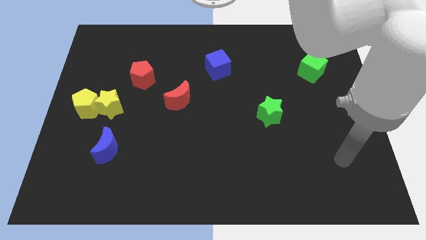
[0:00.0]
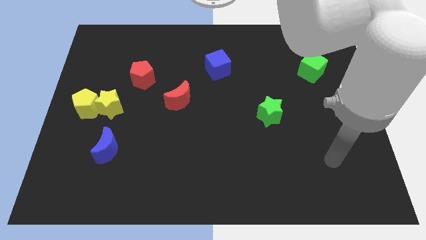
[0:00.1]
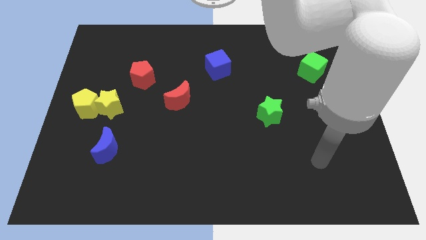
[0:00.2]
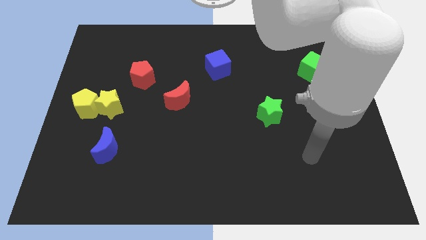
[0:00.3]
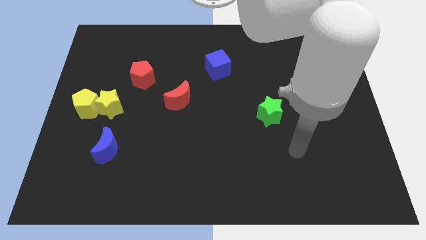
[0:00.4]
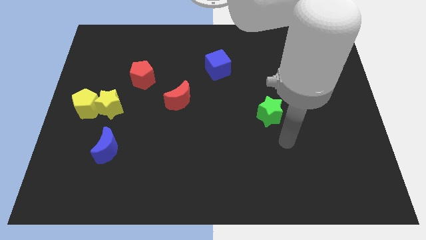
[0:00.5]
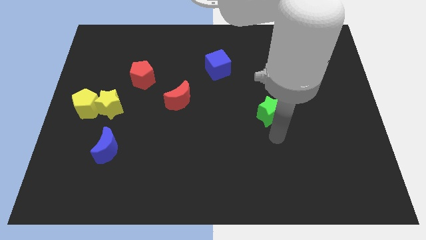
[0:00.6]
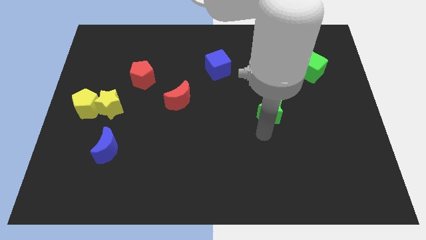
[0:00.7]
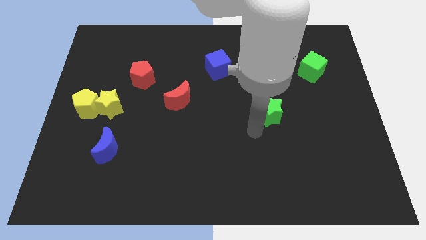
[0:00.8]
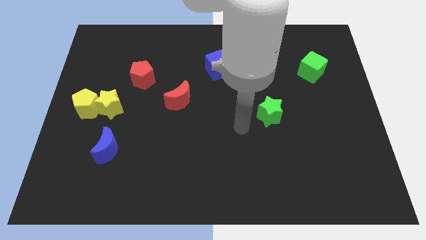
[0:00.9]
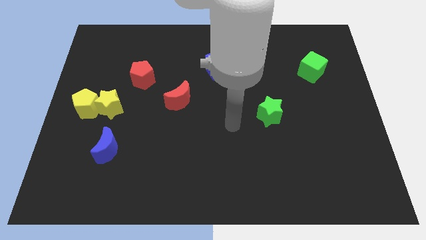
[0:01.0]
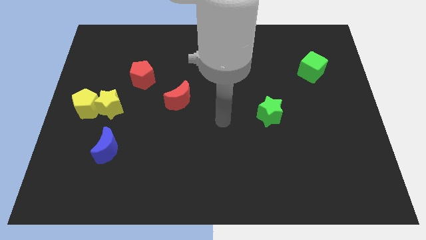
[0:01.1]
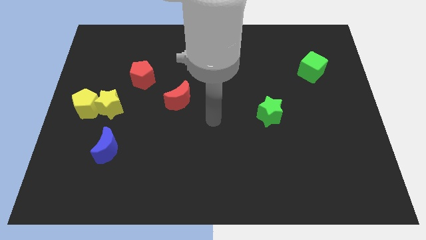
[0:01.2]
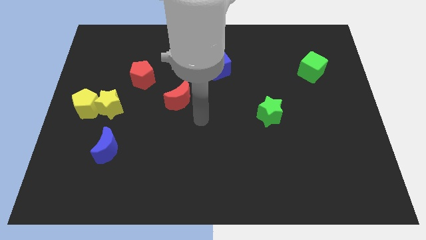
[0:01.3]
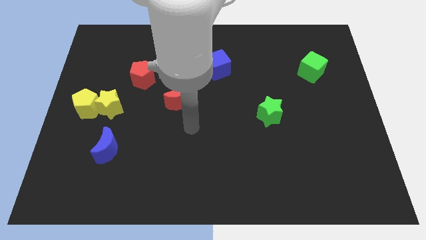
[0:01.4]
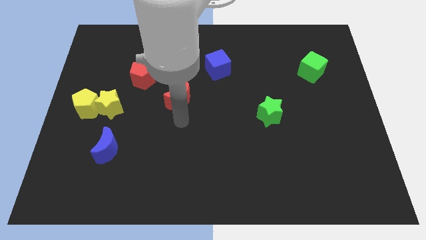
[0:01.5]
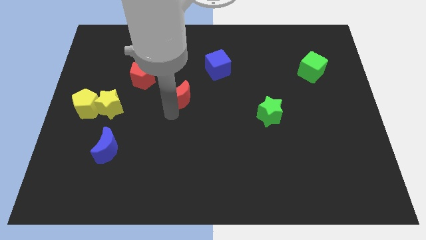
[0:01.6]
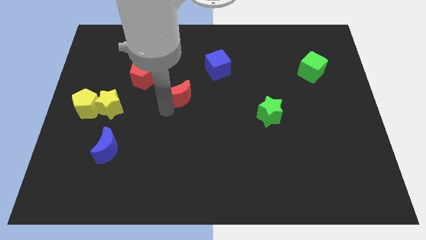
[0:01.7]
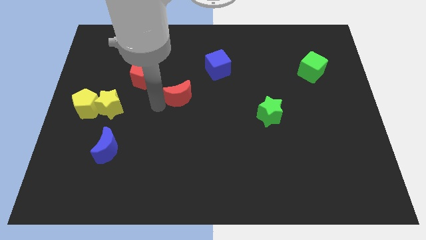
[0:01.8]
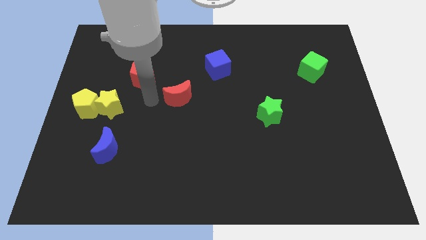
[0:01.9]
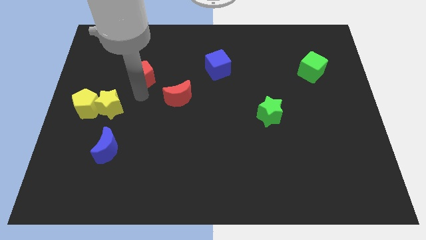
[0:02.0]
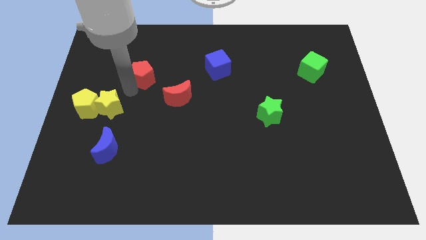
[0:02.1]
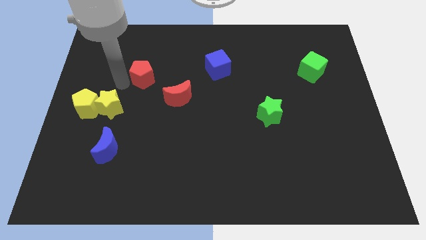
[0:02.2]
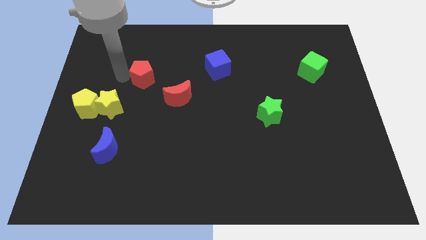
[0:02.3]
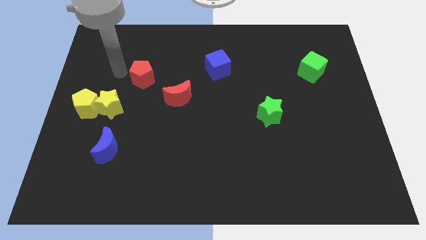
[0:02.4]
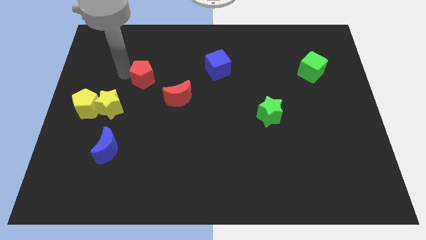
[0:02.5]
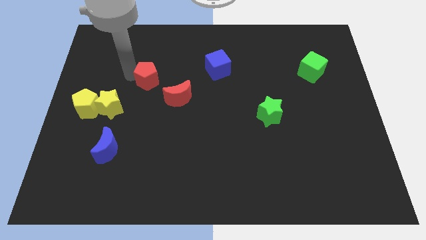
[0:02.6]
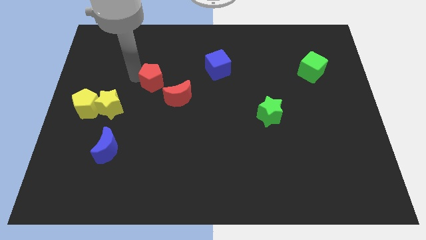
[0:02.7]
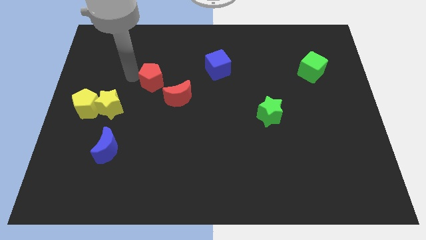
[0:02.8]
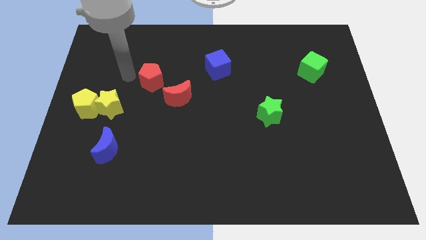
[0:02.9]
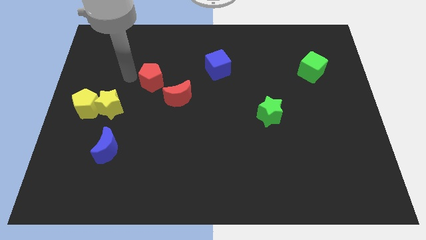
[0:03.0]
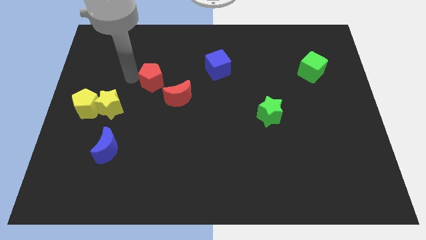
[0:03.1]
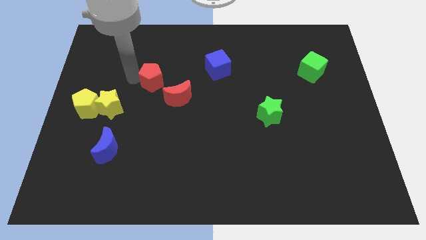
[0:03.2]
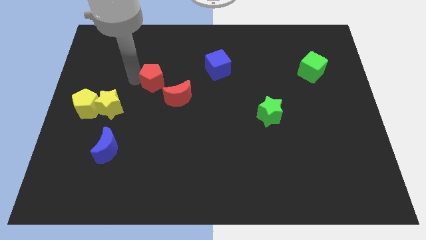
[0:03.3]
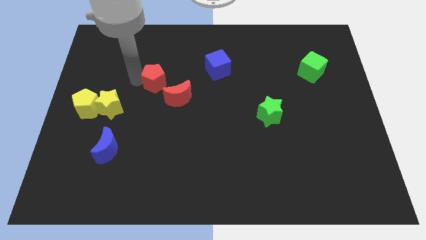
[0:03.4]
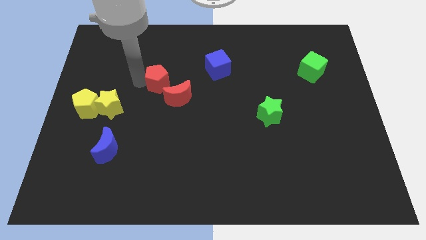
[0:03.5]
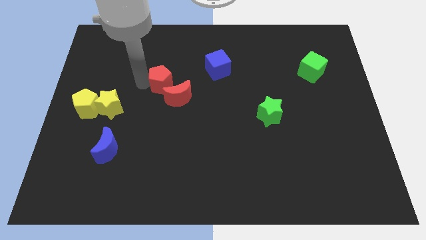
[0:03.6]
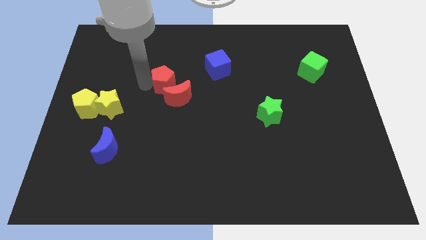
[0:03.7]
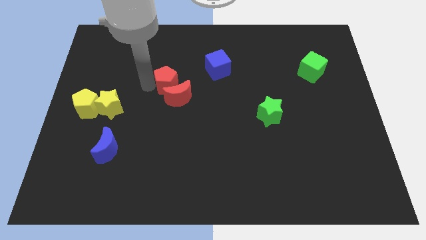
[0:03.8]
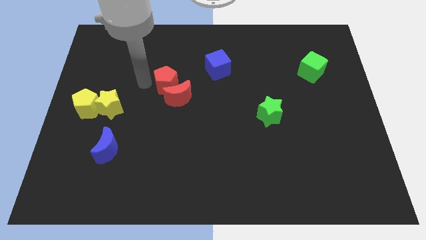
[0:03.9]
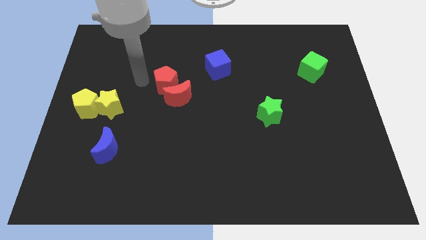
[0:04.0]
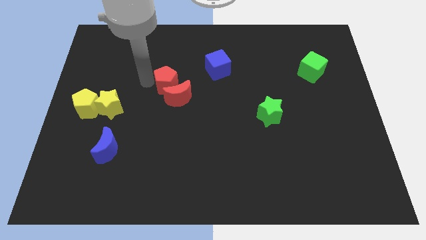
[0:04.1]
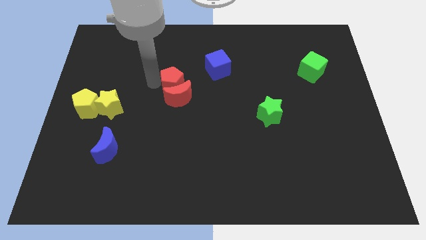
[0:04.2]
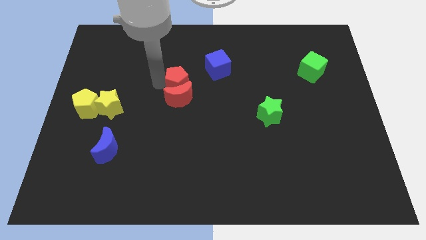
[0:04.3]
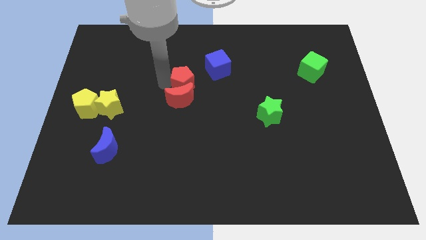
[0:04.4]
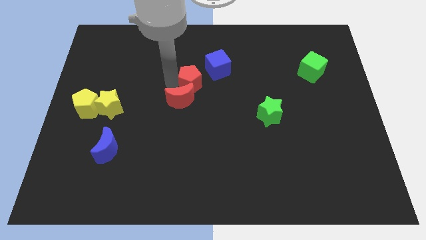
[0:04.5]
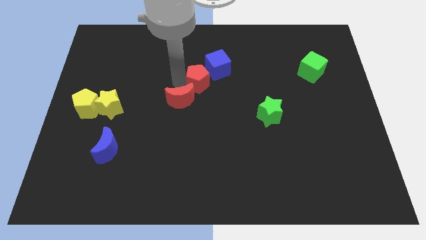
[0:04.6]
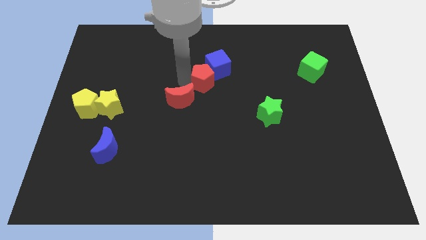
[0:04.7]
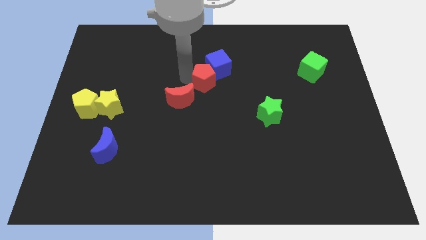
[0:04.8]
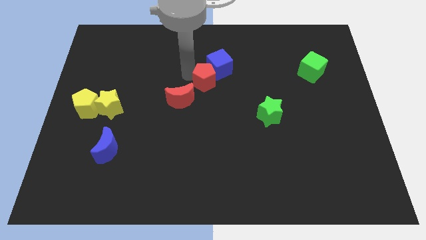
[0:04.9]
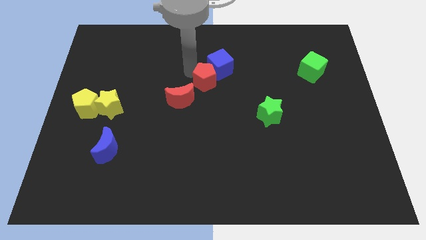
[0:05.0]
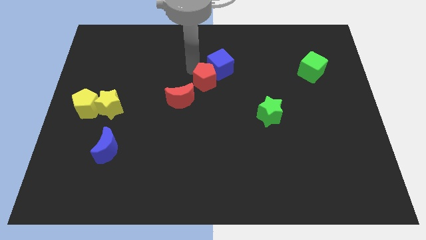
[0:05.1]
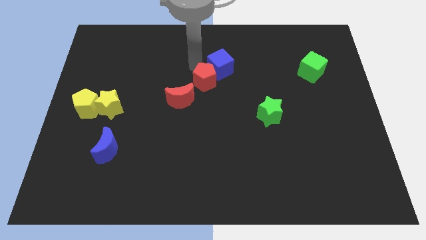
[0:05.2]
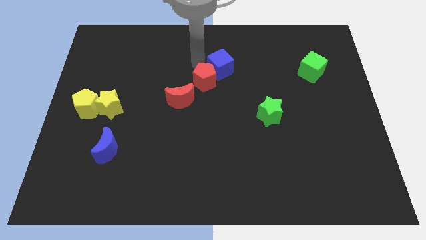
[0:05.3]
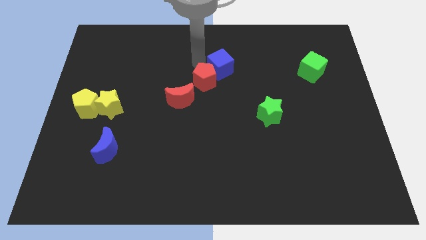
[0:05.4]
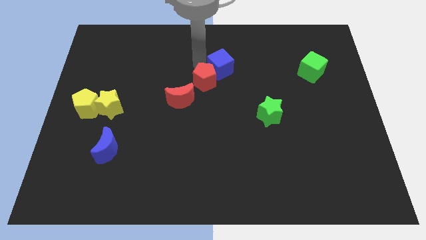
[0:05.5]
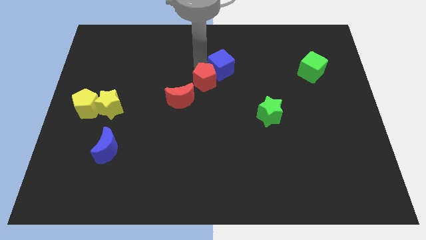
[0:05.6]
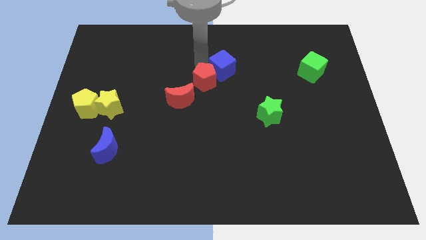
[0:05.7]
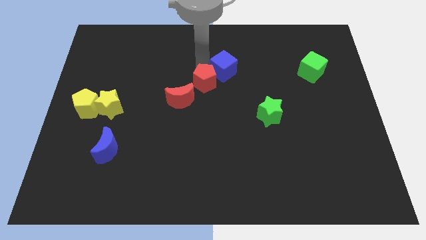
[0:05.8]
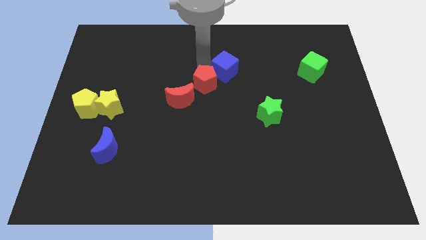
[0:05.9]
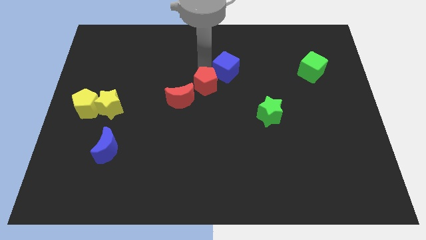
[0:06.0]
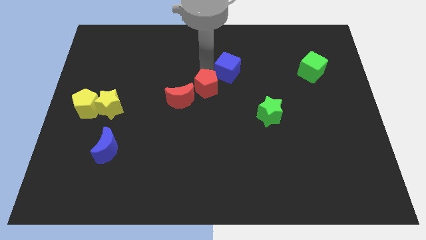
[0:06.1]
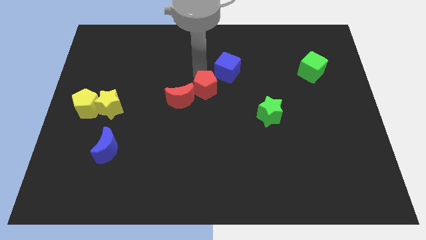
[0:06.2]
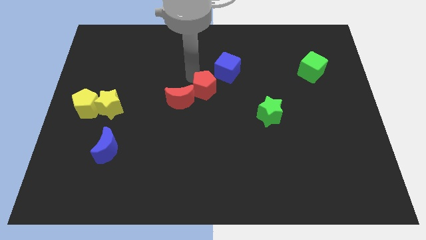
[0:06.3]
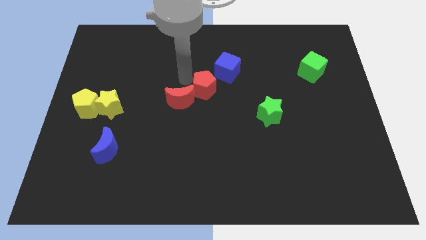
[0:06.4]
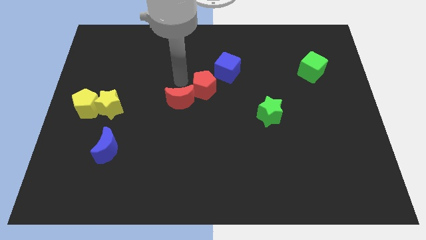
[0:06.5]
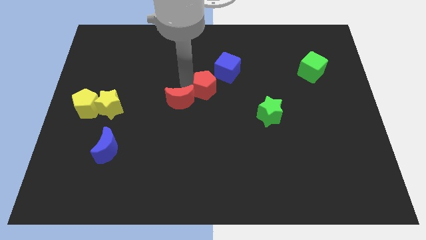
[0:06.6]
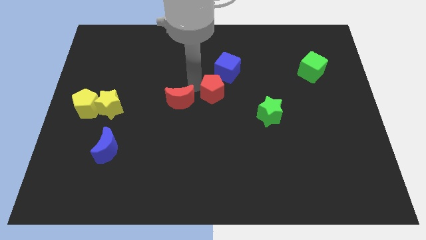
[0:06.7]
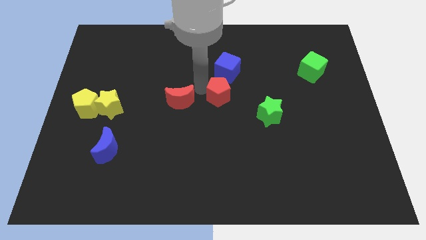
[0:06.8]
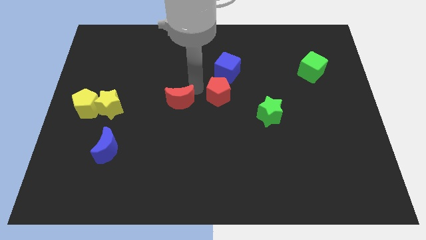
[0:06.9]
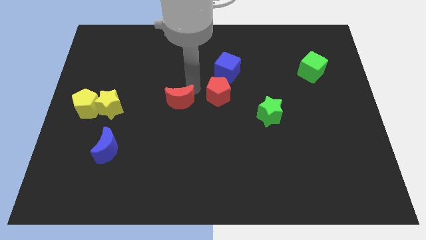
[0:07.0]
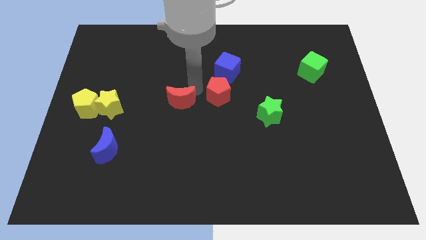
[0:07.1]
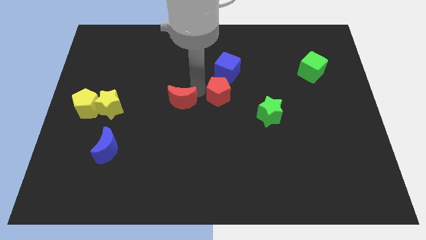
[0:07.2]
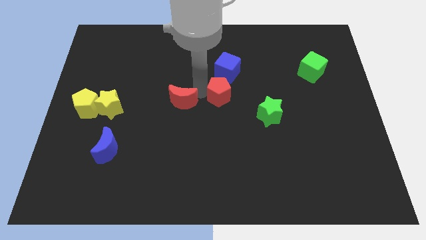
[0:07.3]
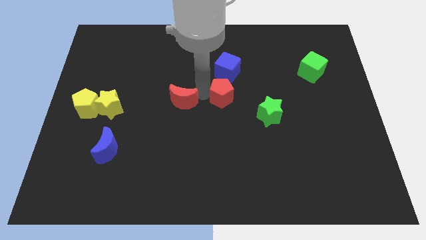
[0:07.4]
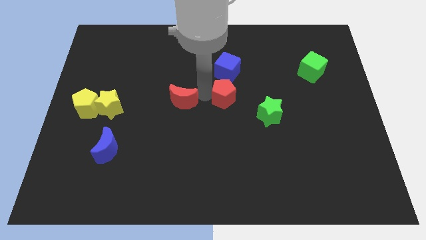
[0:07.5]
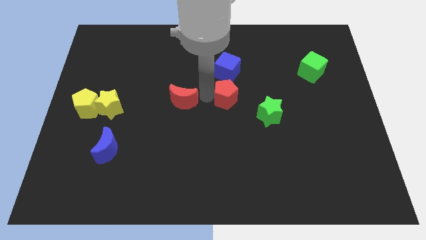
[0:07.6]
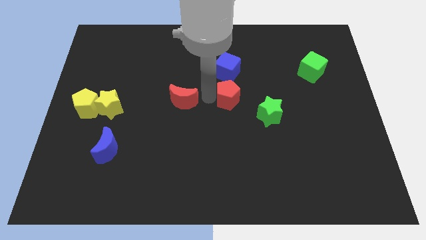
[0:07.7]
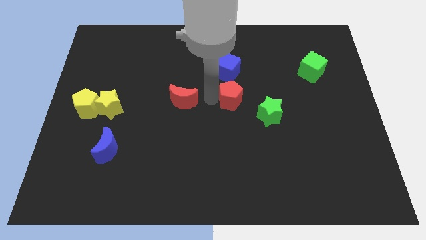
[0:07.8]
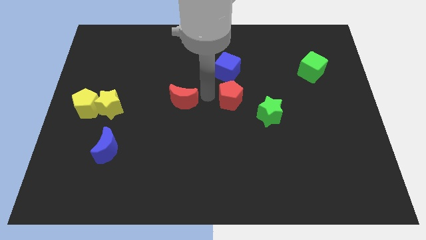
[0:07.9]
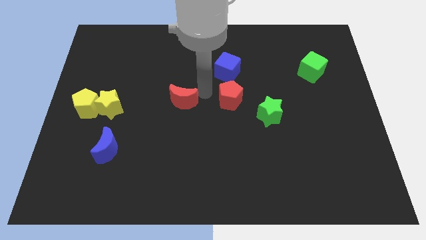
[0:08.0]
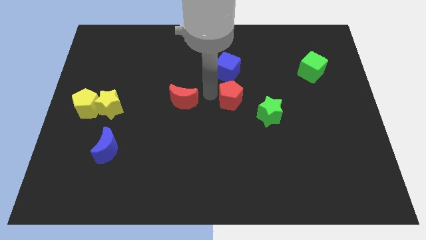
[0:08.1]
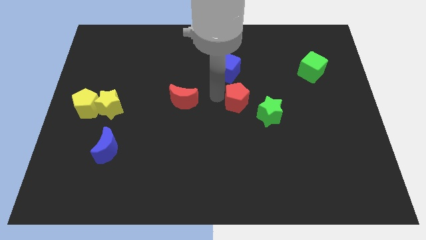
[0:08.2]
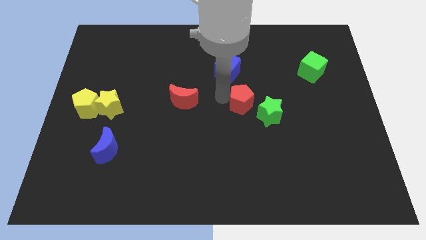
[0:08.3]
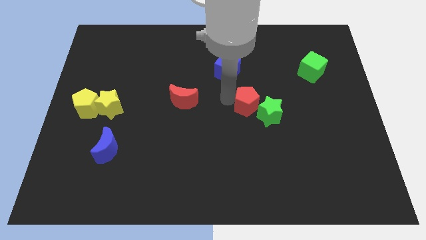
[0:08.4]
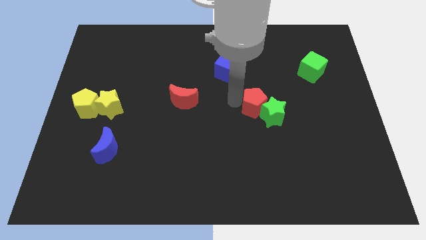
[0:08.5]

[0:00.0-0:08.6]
slide the red pentagon next to the green star
